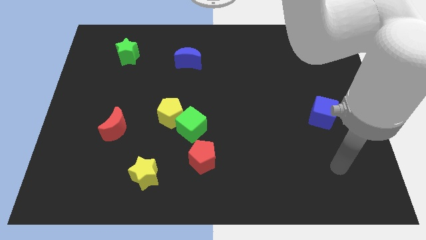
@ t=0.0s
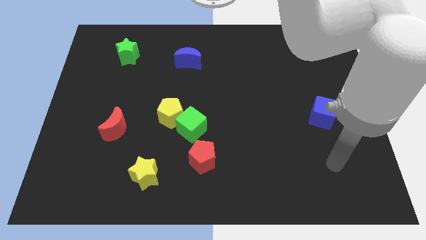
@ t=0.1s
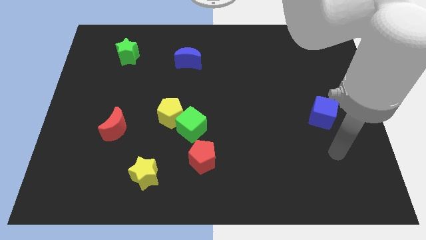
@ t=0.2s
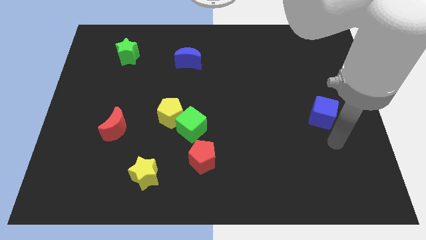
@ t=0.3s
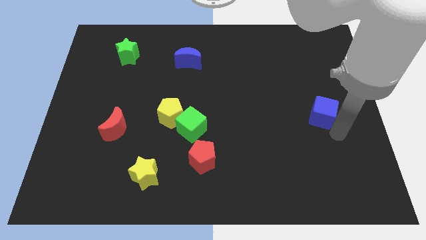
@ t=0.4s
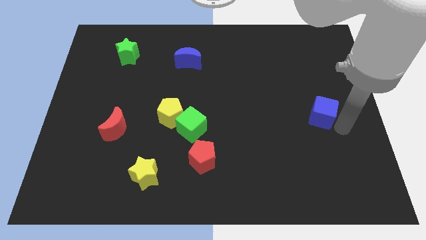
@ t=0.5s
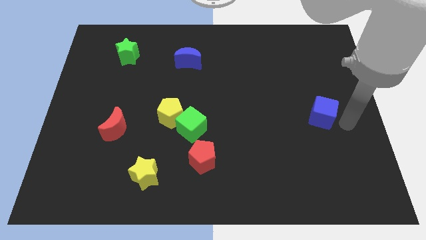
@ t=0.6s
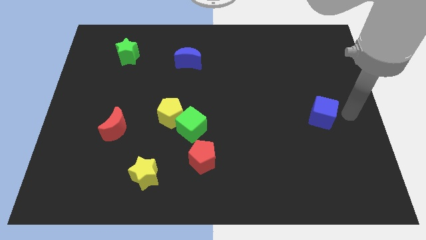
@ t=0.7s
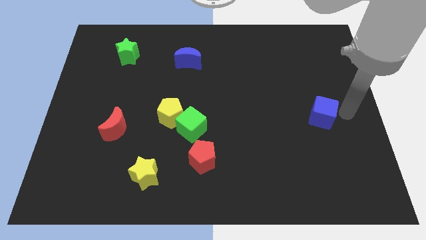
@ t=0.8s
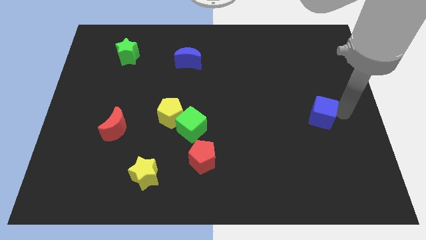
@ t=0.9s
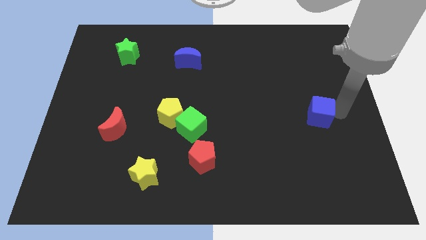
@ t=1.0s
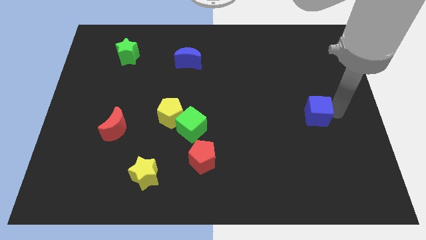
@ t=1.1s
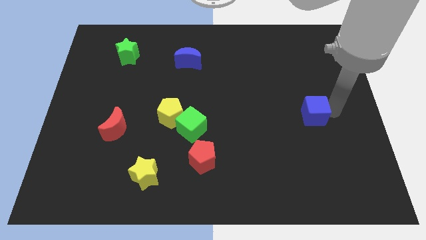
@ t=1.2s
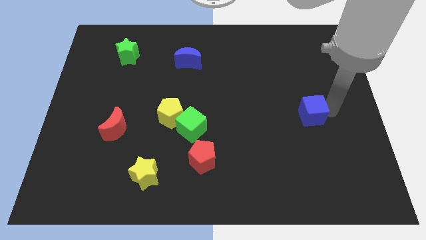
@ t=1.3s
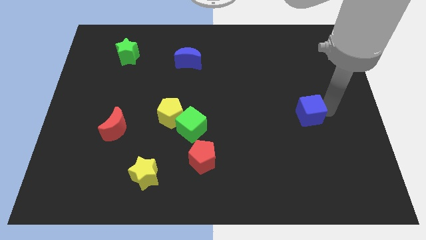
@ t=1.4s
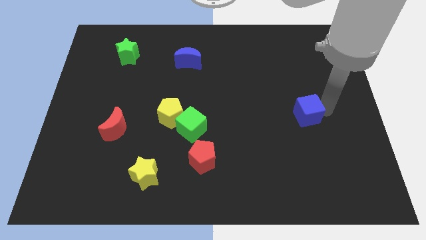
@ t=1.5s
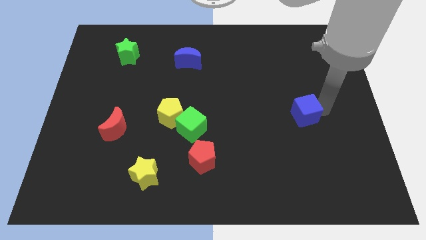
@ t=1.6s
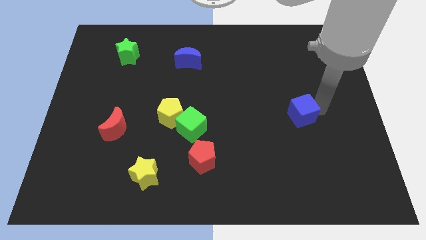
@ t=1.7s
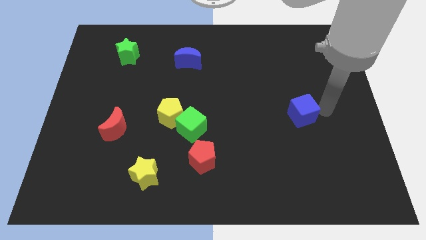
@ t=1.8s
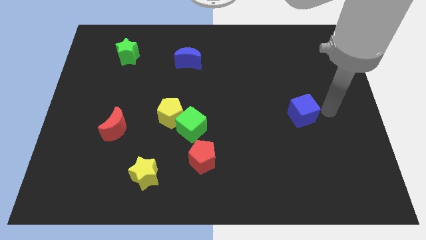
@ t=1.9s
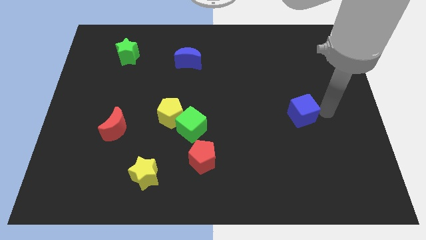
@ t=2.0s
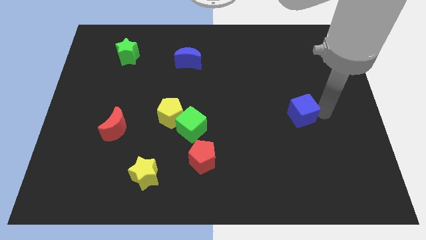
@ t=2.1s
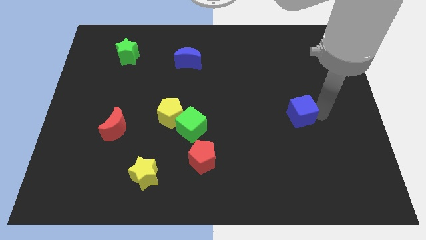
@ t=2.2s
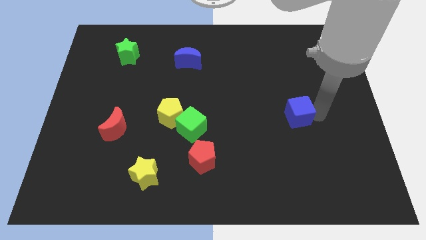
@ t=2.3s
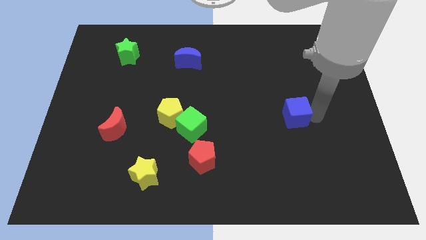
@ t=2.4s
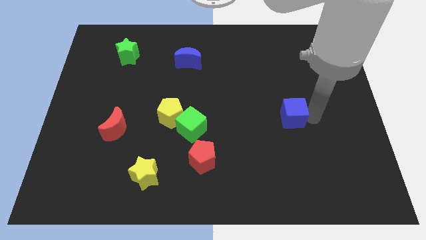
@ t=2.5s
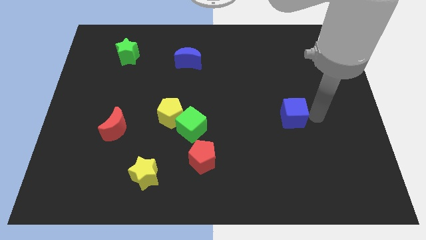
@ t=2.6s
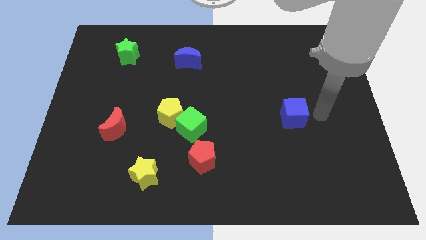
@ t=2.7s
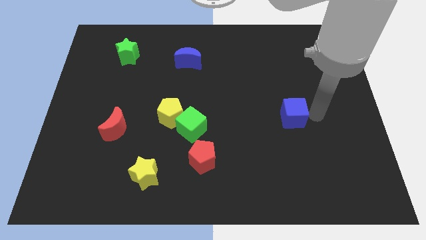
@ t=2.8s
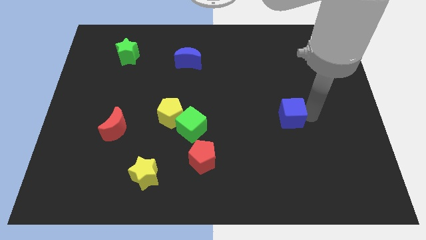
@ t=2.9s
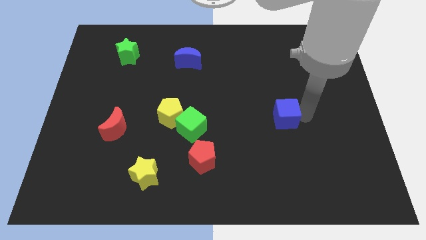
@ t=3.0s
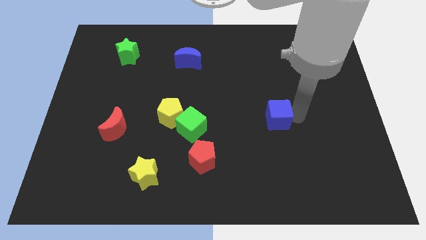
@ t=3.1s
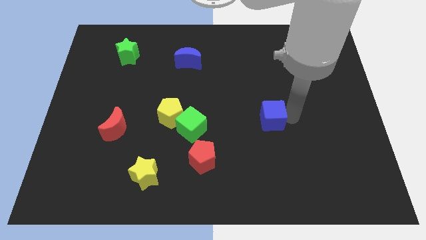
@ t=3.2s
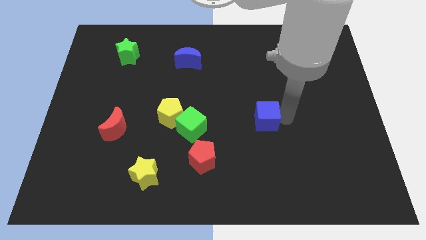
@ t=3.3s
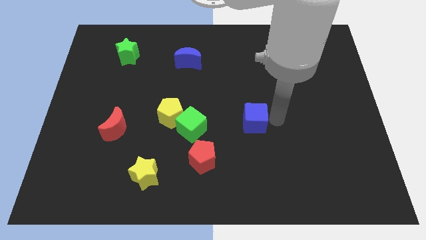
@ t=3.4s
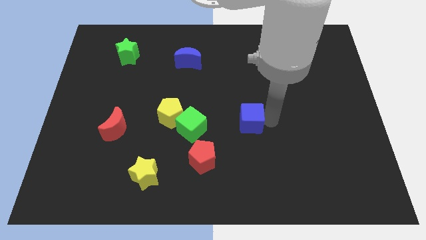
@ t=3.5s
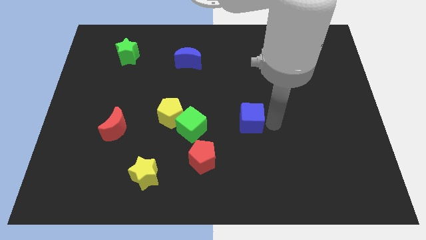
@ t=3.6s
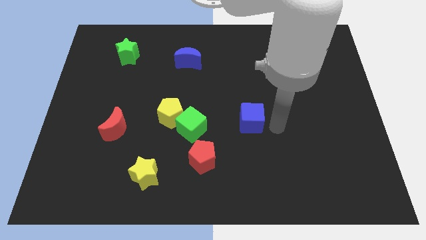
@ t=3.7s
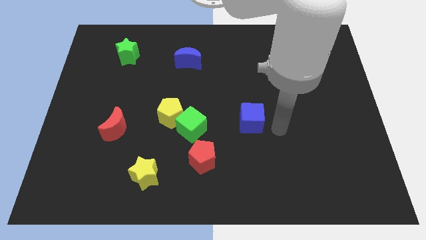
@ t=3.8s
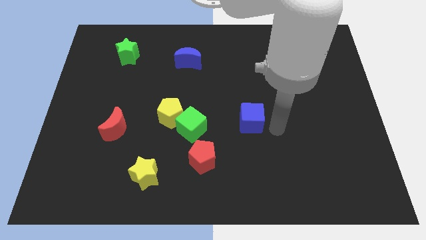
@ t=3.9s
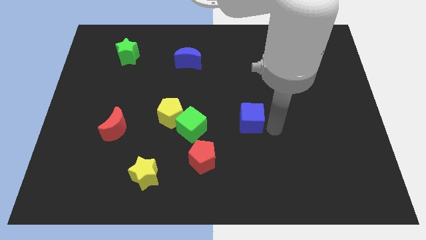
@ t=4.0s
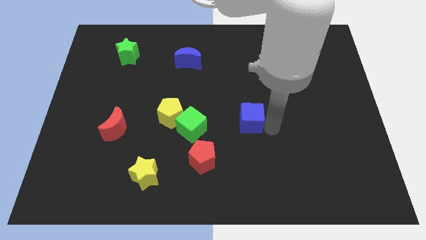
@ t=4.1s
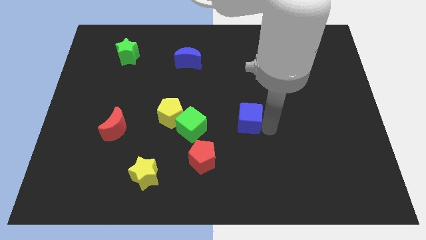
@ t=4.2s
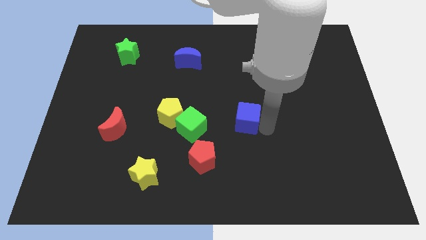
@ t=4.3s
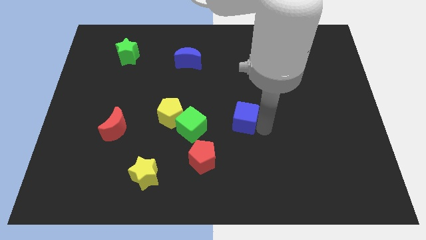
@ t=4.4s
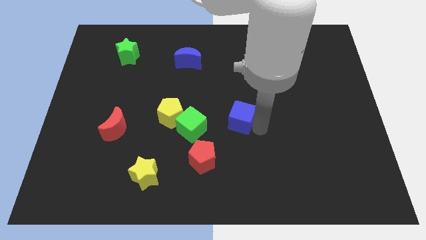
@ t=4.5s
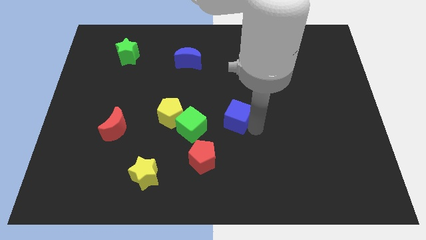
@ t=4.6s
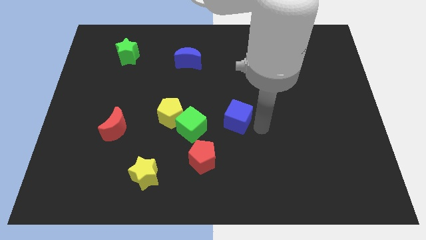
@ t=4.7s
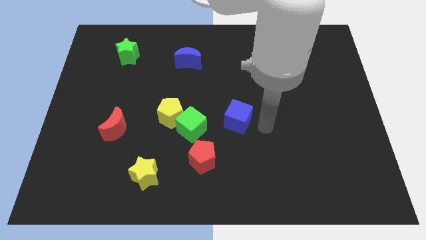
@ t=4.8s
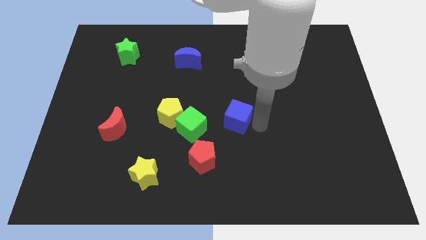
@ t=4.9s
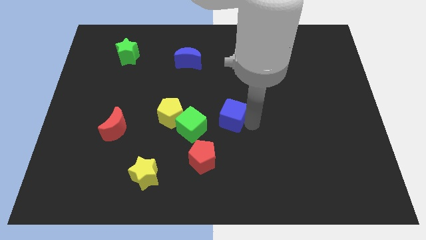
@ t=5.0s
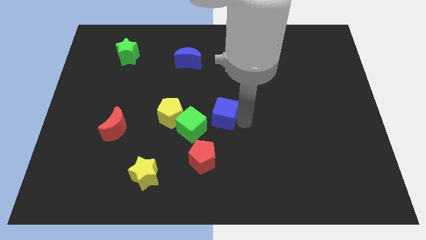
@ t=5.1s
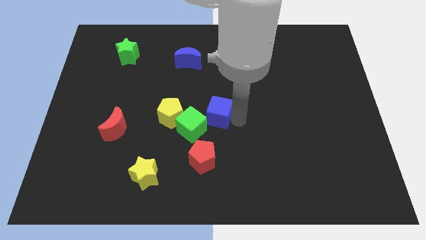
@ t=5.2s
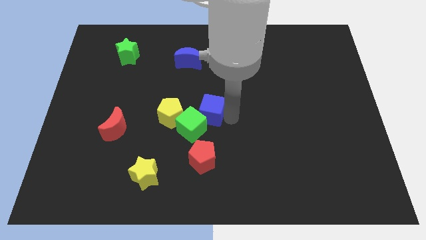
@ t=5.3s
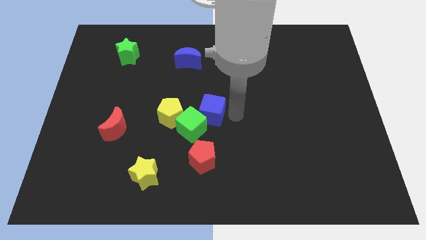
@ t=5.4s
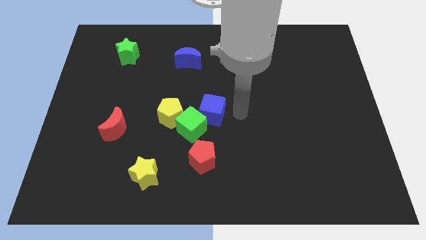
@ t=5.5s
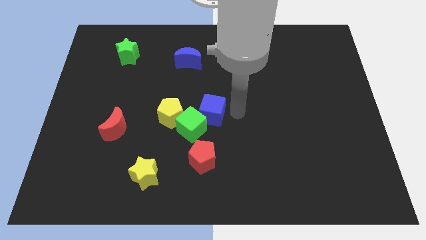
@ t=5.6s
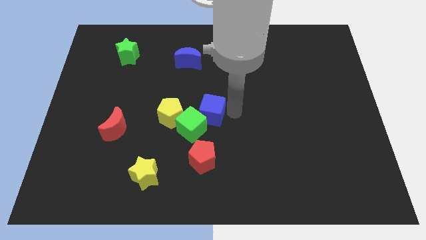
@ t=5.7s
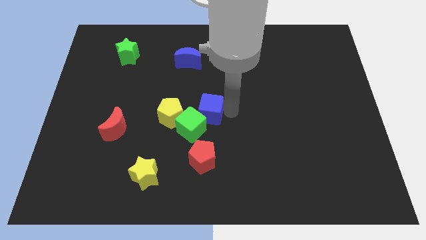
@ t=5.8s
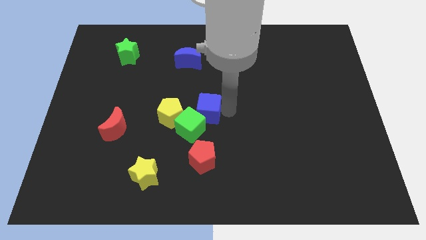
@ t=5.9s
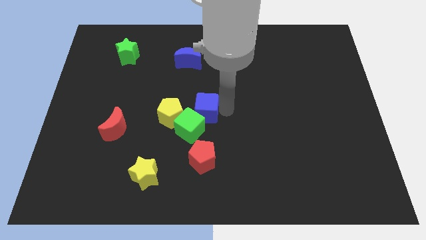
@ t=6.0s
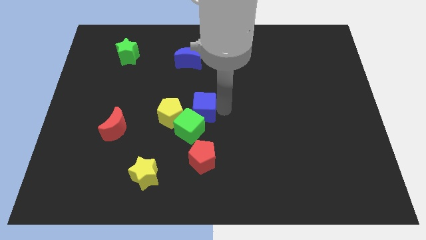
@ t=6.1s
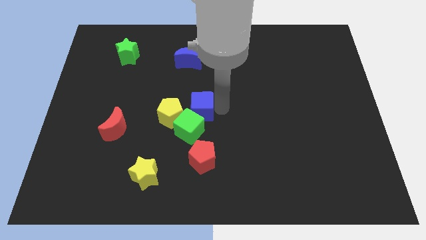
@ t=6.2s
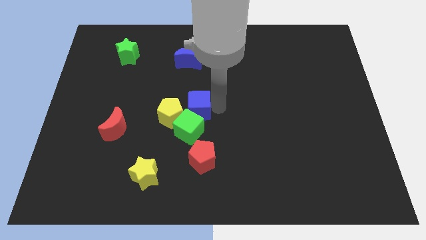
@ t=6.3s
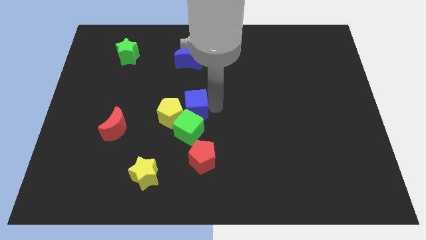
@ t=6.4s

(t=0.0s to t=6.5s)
move the blue cube next to the yellow pentagon

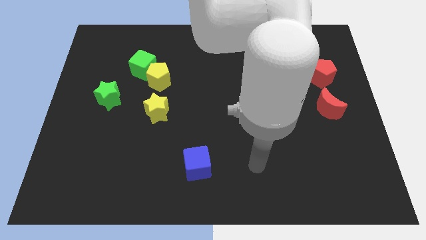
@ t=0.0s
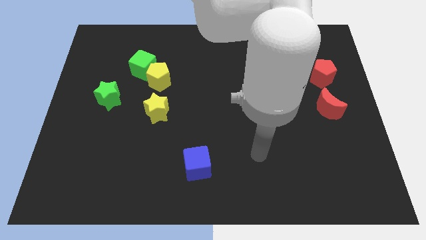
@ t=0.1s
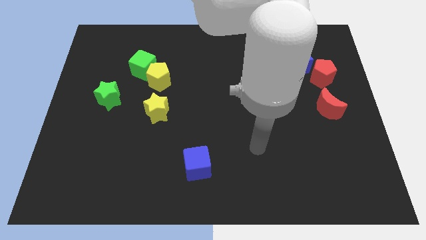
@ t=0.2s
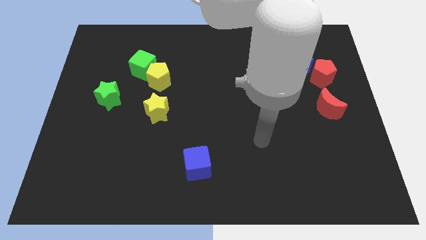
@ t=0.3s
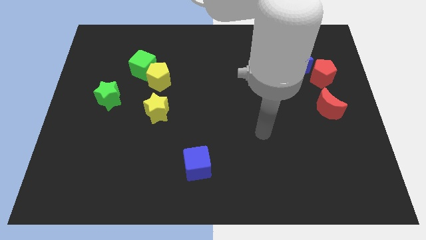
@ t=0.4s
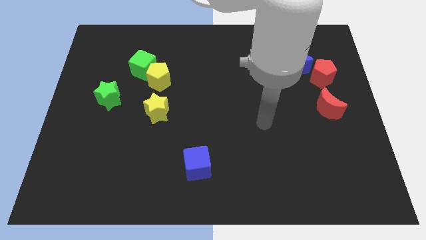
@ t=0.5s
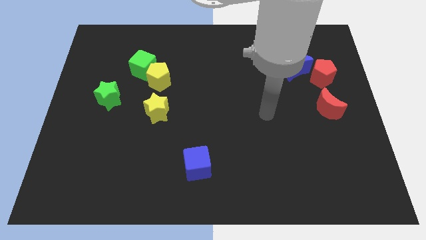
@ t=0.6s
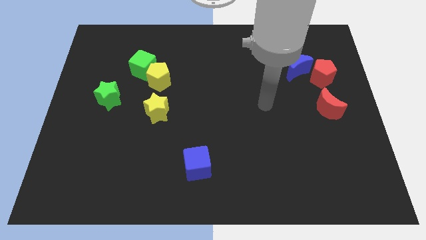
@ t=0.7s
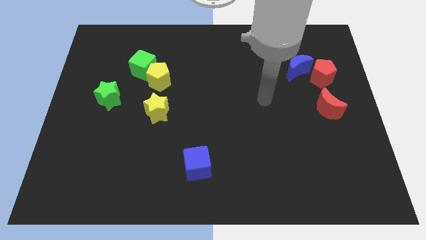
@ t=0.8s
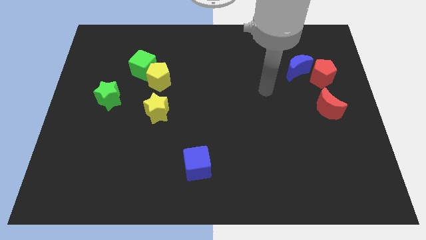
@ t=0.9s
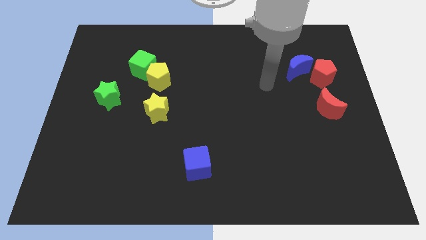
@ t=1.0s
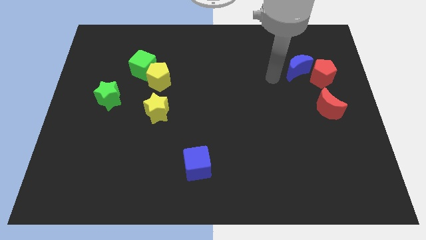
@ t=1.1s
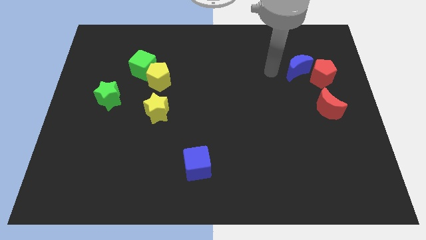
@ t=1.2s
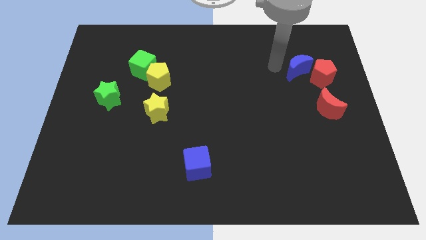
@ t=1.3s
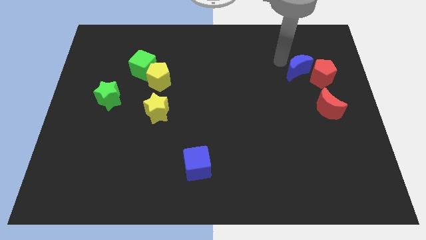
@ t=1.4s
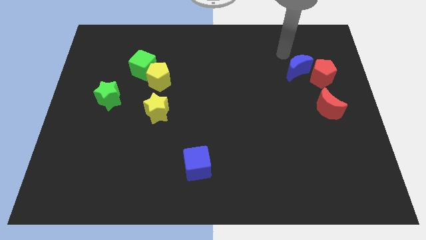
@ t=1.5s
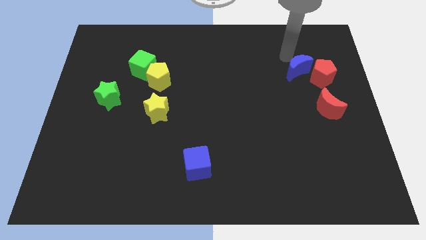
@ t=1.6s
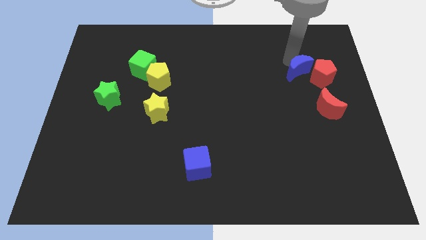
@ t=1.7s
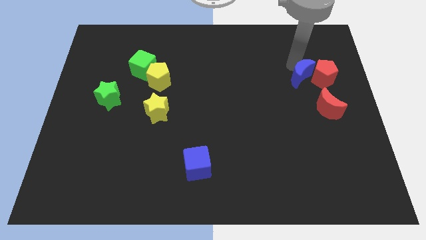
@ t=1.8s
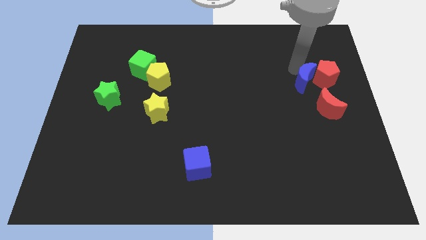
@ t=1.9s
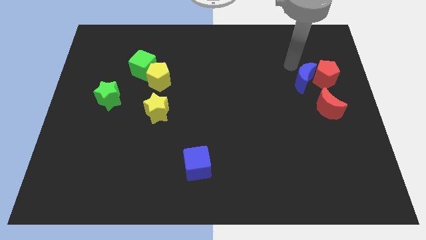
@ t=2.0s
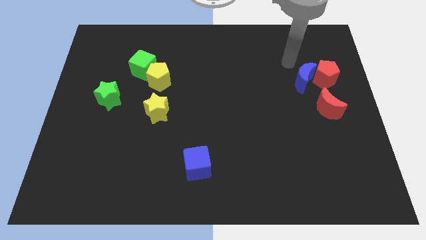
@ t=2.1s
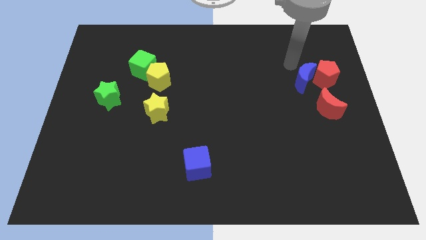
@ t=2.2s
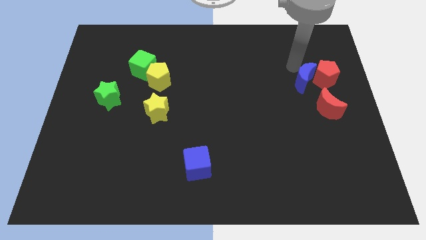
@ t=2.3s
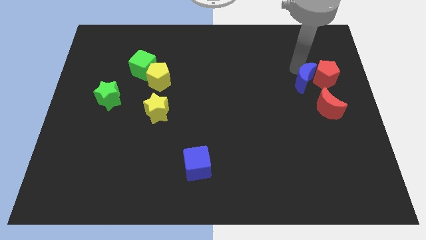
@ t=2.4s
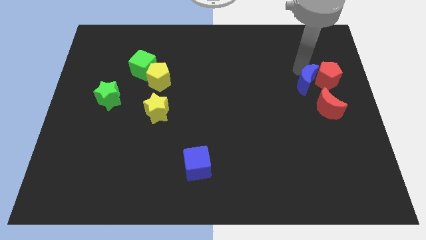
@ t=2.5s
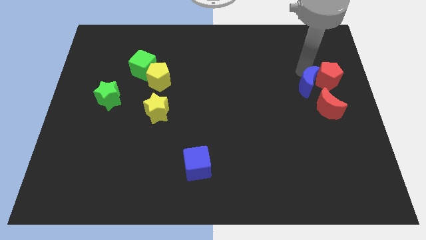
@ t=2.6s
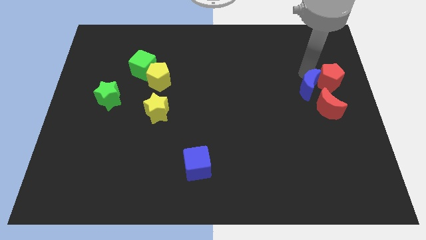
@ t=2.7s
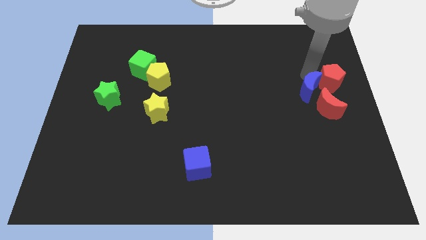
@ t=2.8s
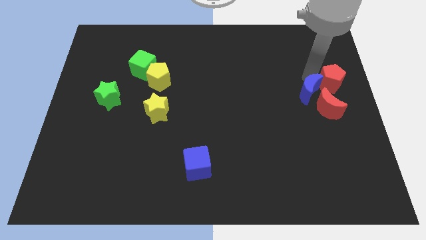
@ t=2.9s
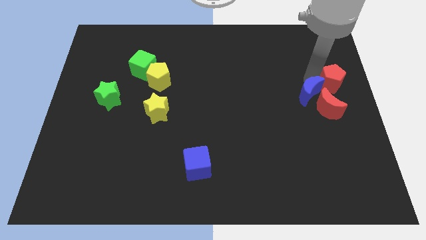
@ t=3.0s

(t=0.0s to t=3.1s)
put the blue moon close to the red moon
